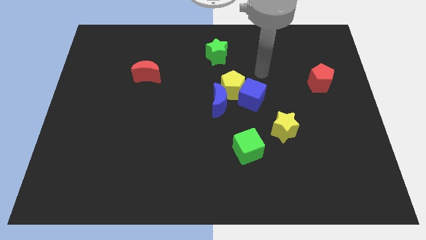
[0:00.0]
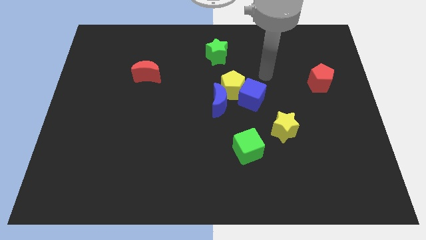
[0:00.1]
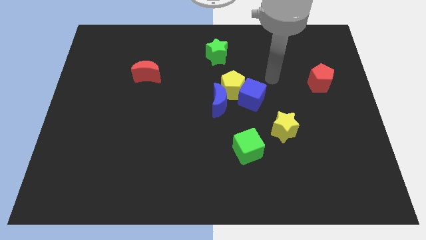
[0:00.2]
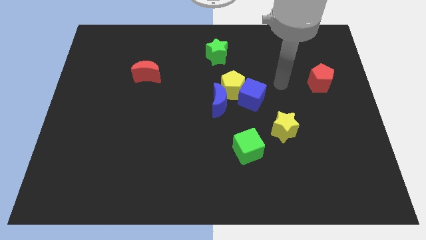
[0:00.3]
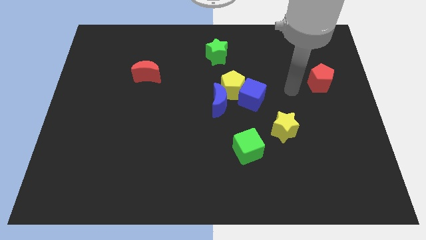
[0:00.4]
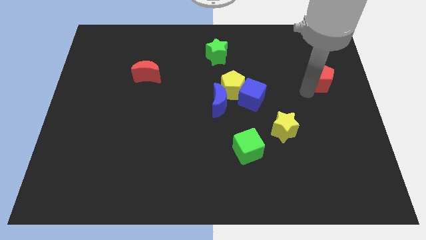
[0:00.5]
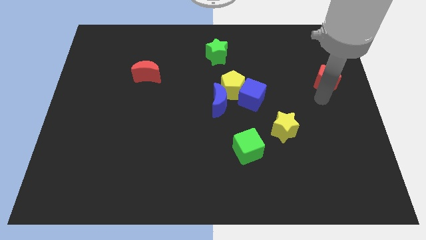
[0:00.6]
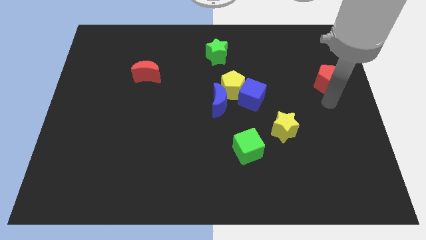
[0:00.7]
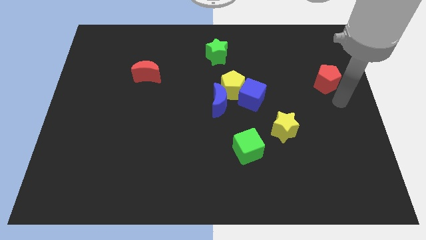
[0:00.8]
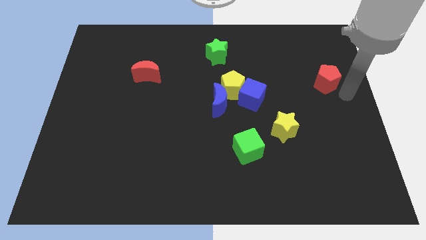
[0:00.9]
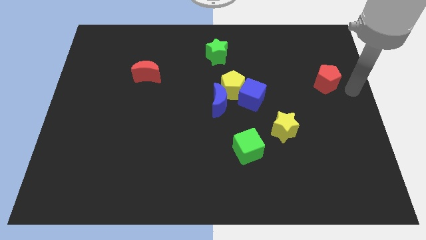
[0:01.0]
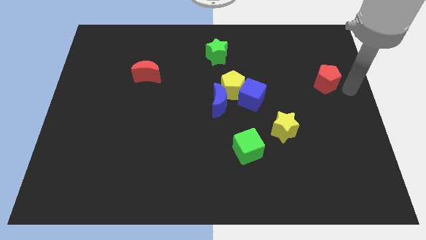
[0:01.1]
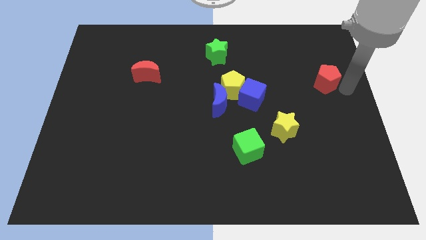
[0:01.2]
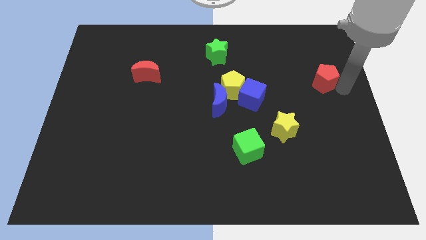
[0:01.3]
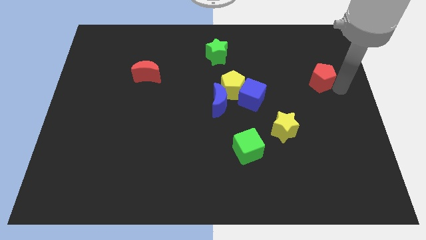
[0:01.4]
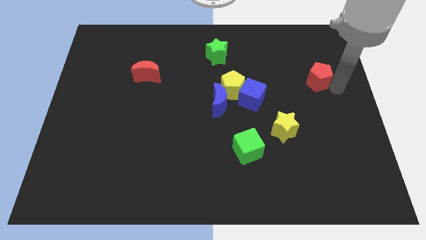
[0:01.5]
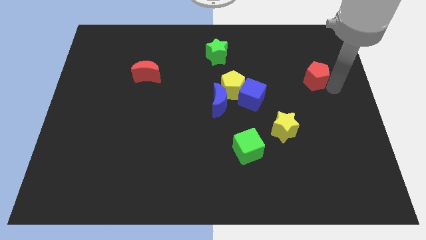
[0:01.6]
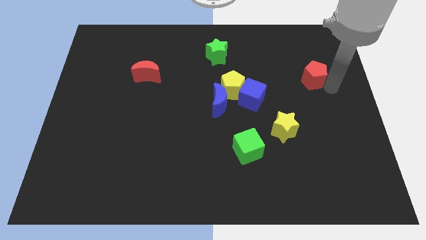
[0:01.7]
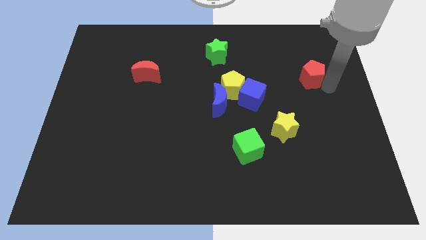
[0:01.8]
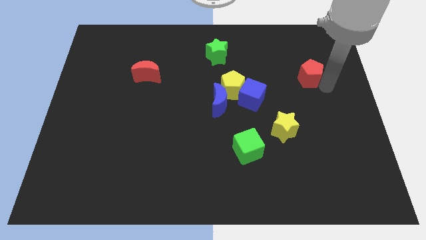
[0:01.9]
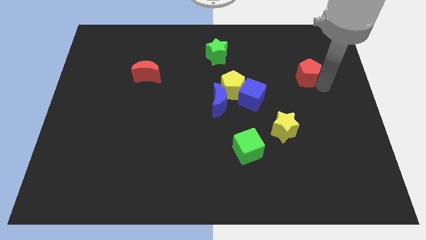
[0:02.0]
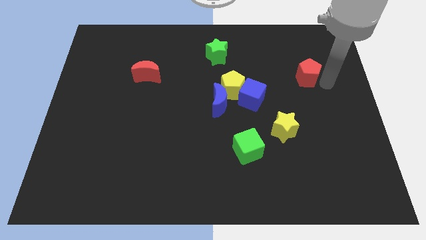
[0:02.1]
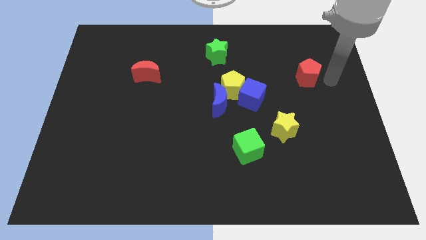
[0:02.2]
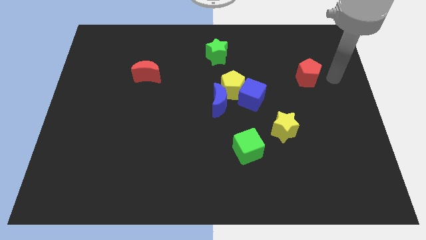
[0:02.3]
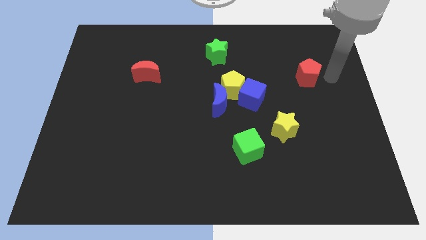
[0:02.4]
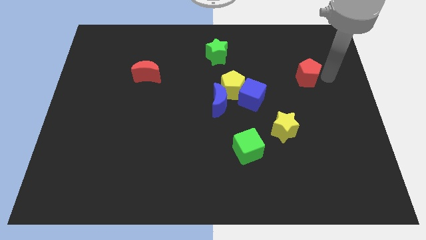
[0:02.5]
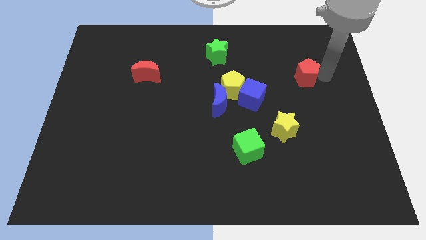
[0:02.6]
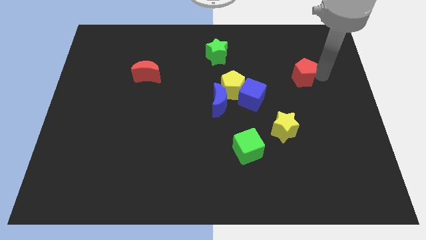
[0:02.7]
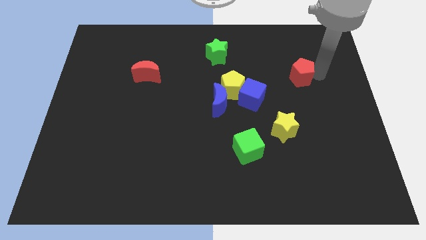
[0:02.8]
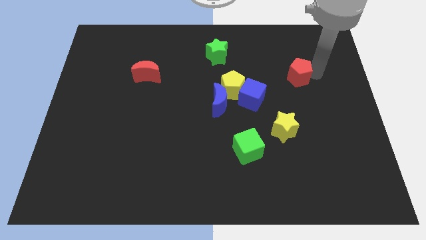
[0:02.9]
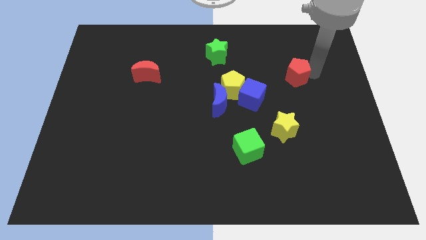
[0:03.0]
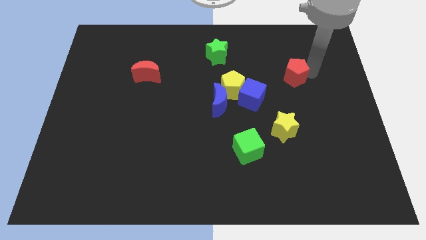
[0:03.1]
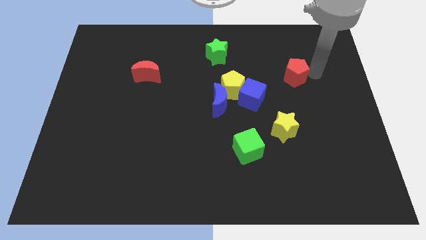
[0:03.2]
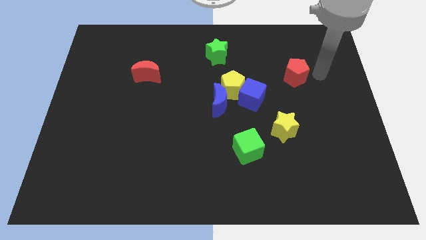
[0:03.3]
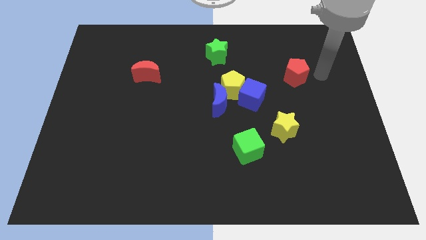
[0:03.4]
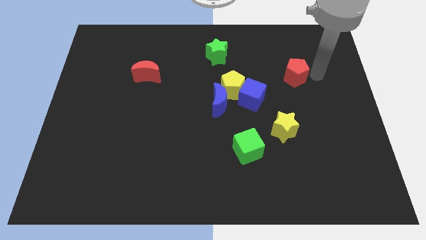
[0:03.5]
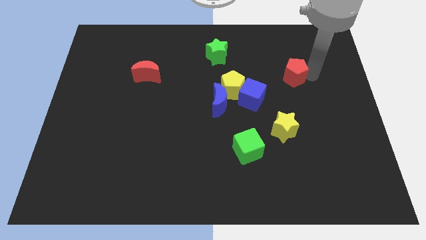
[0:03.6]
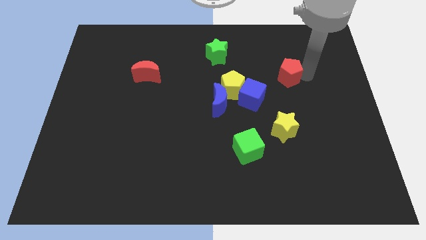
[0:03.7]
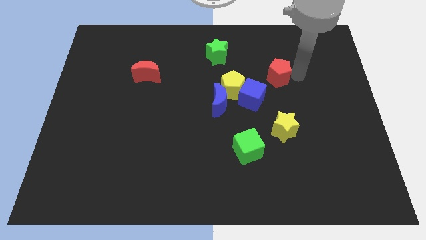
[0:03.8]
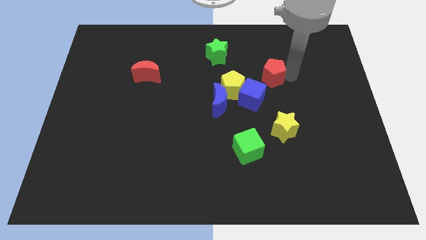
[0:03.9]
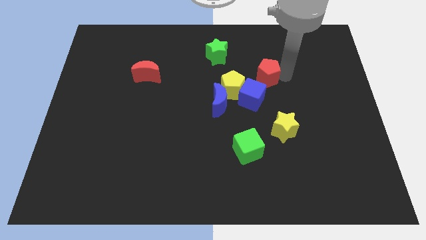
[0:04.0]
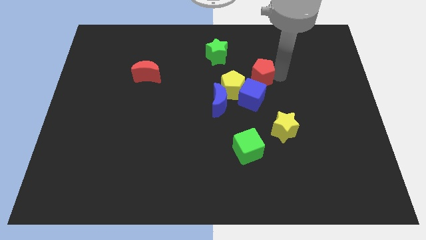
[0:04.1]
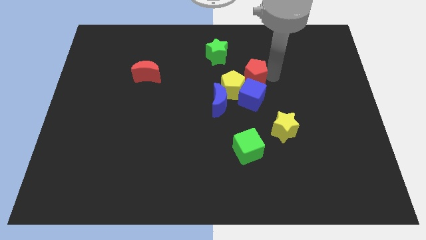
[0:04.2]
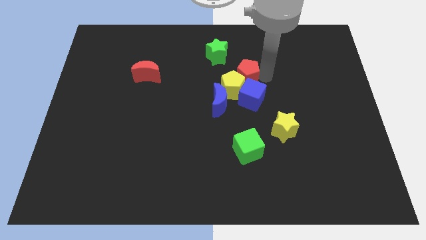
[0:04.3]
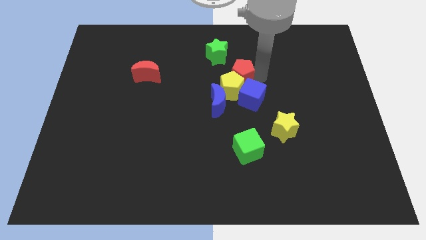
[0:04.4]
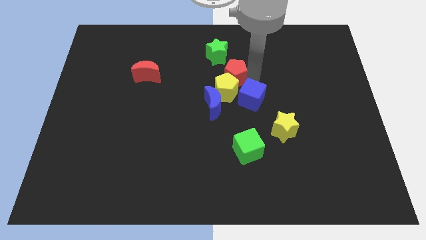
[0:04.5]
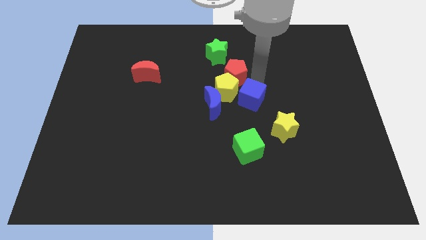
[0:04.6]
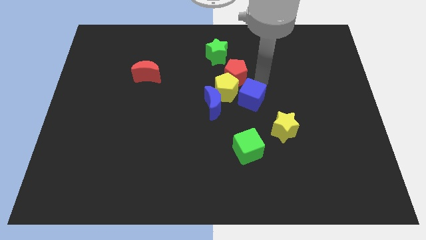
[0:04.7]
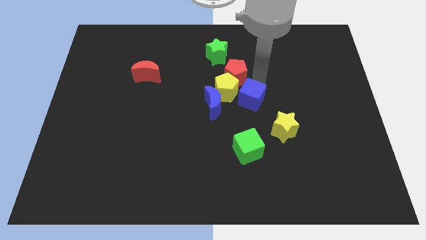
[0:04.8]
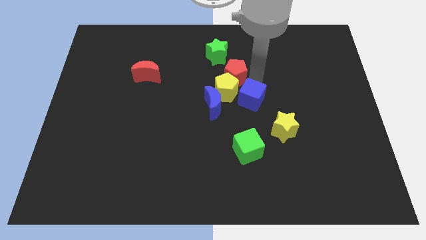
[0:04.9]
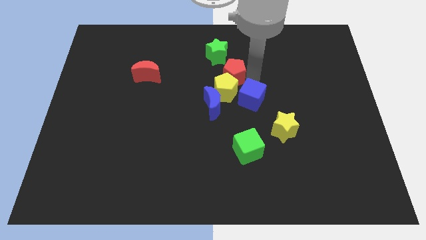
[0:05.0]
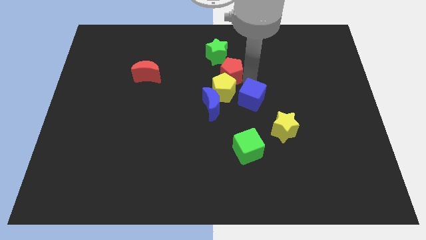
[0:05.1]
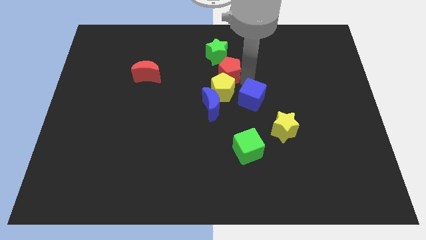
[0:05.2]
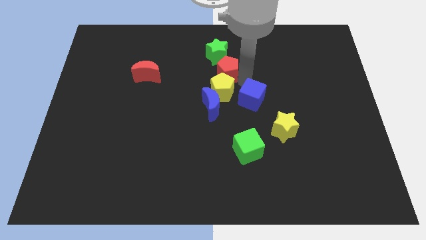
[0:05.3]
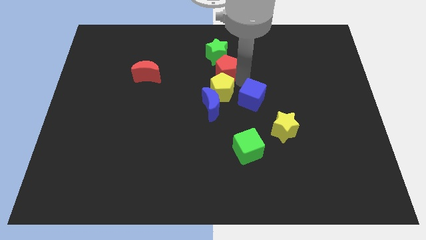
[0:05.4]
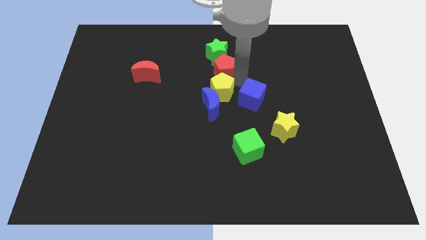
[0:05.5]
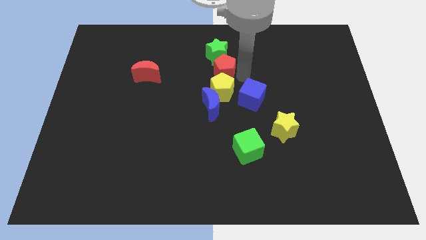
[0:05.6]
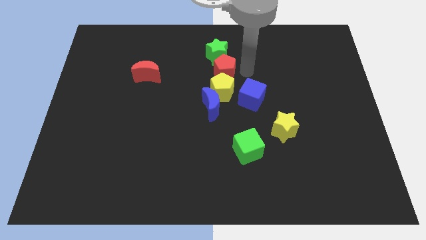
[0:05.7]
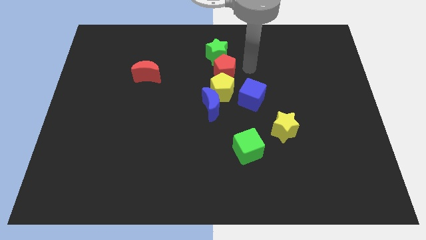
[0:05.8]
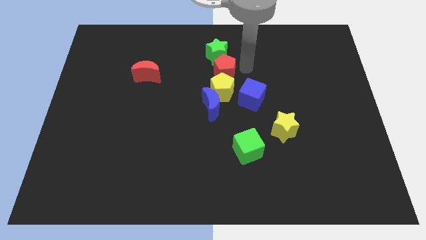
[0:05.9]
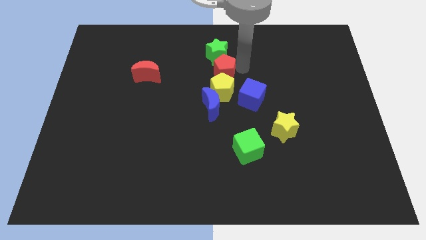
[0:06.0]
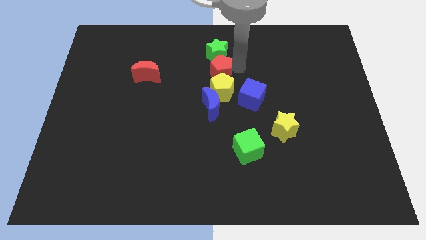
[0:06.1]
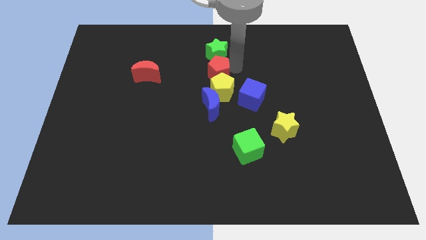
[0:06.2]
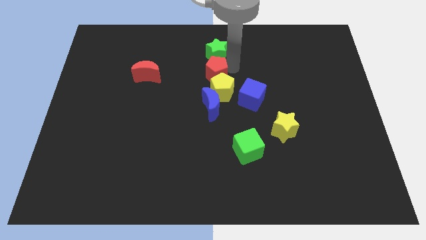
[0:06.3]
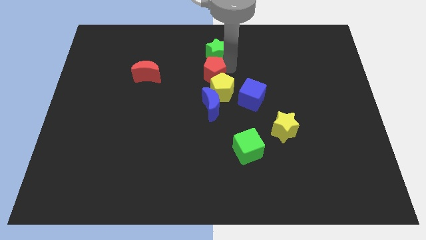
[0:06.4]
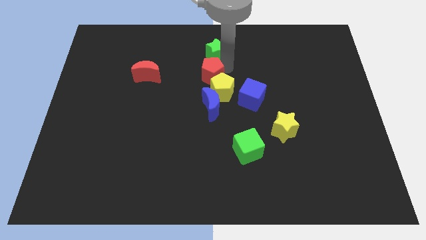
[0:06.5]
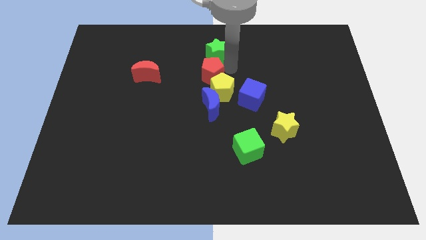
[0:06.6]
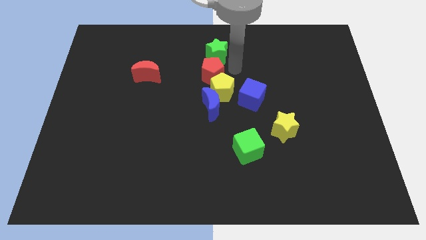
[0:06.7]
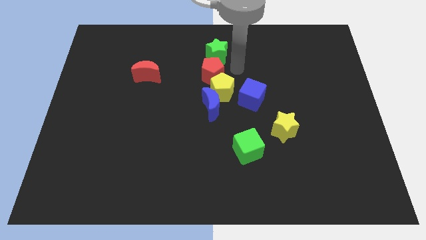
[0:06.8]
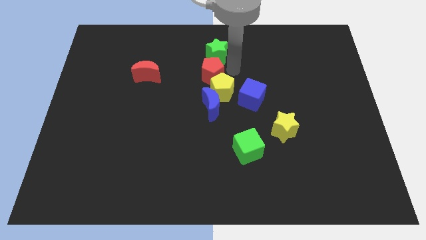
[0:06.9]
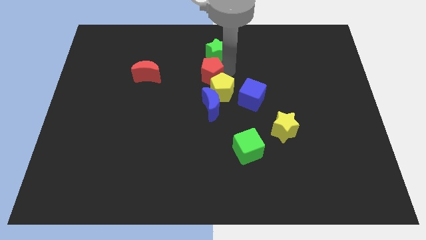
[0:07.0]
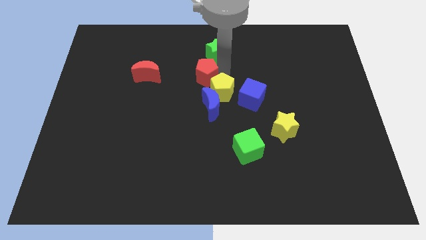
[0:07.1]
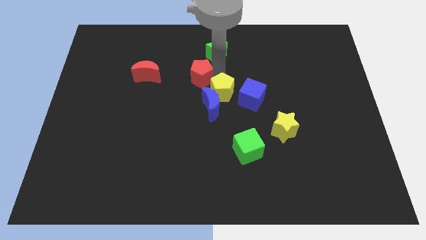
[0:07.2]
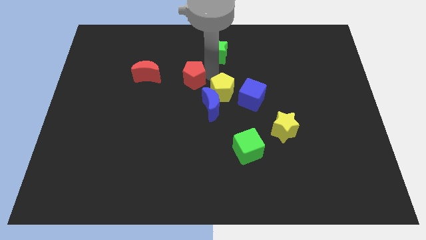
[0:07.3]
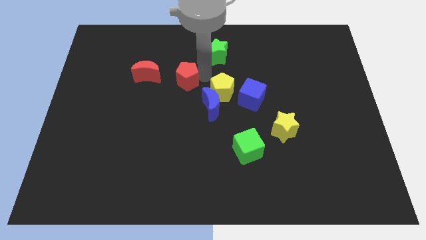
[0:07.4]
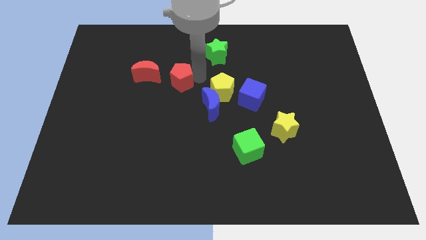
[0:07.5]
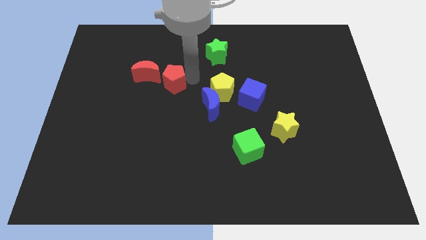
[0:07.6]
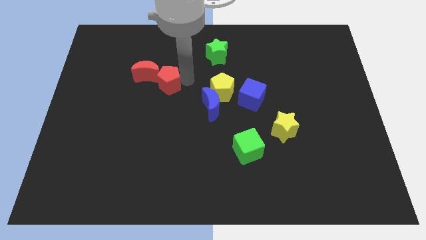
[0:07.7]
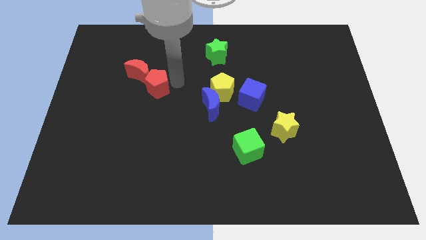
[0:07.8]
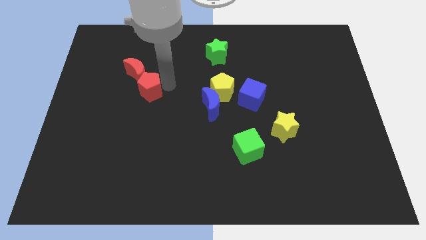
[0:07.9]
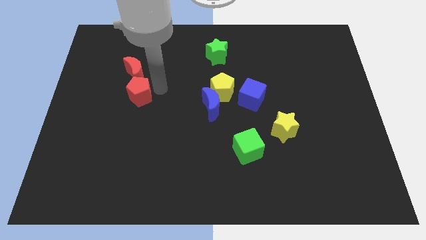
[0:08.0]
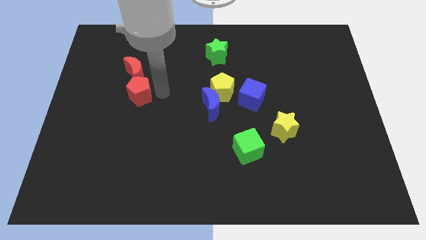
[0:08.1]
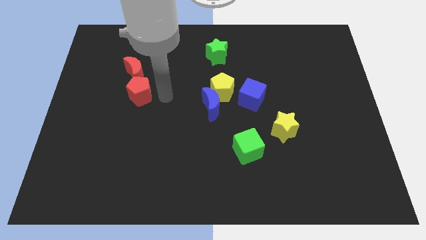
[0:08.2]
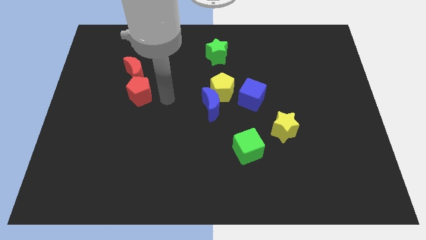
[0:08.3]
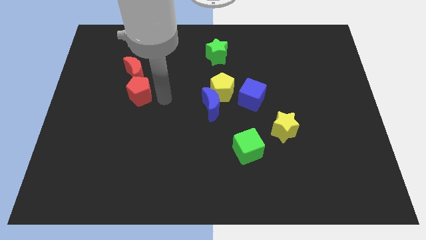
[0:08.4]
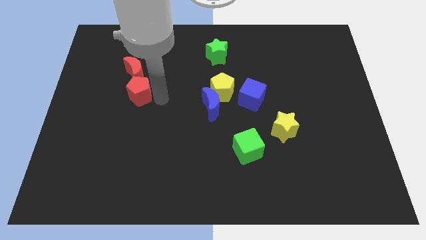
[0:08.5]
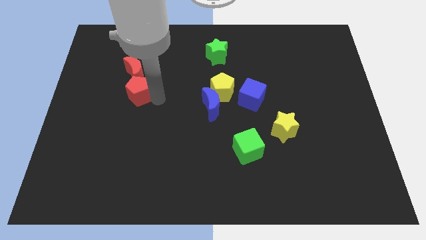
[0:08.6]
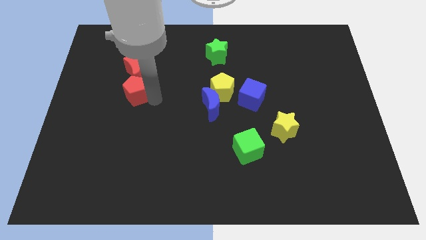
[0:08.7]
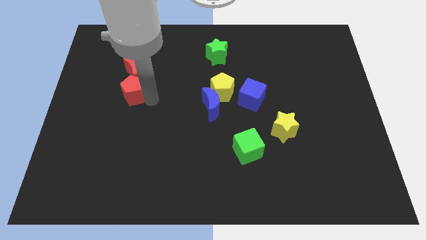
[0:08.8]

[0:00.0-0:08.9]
put the red pentagon diagonally down and to the left of the red moon
